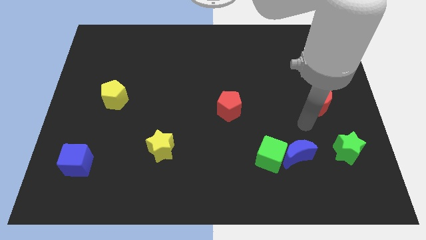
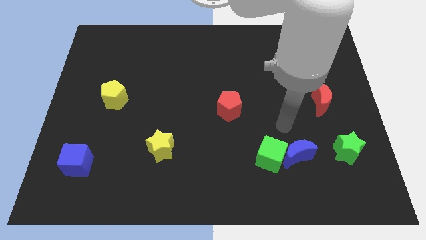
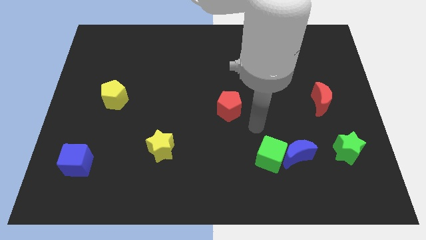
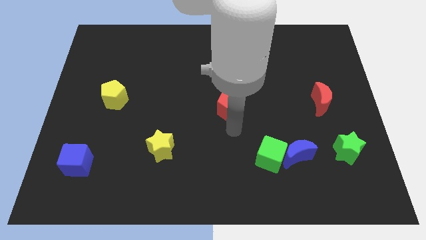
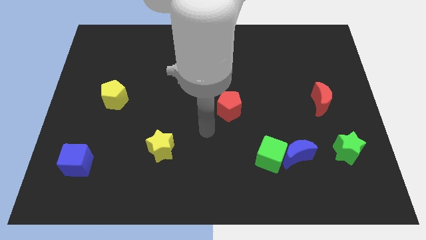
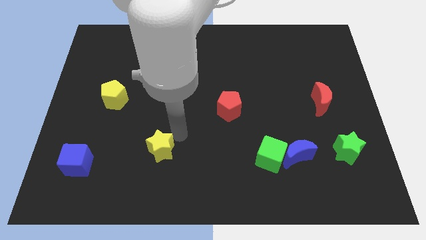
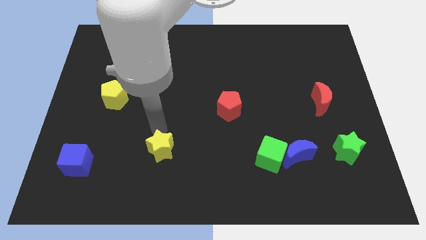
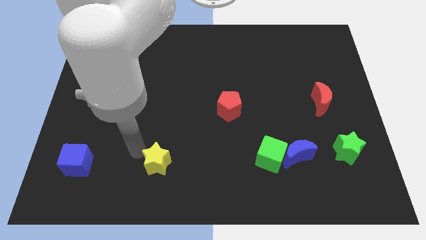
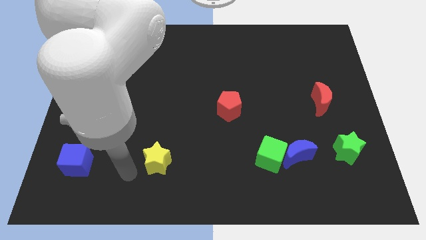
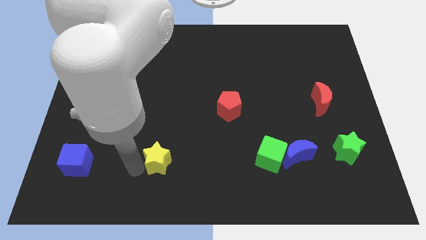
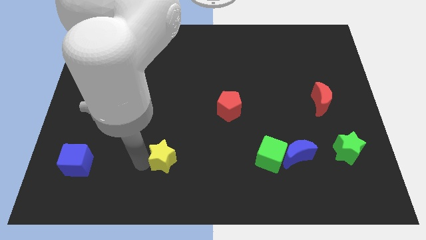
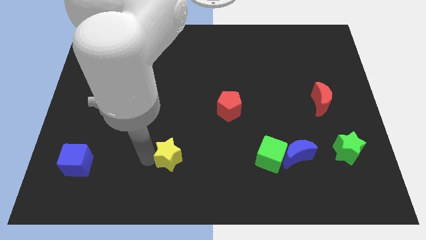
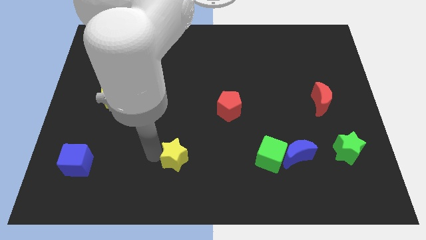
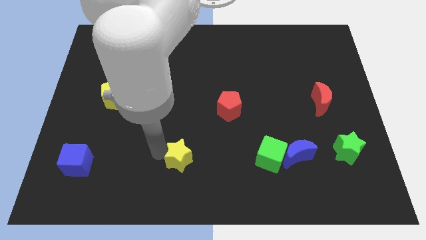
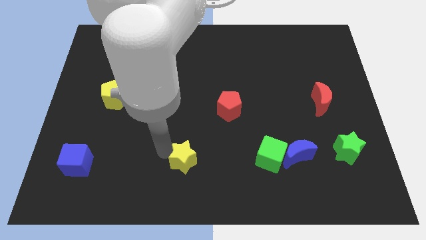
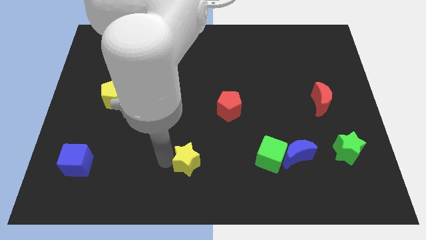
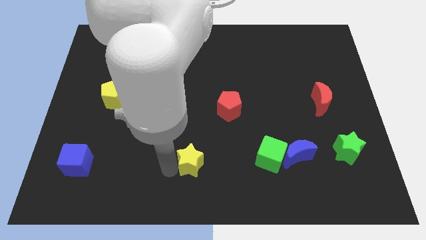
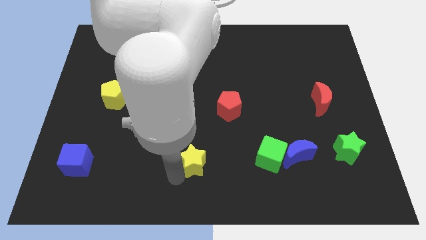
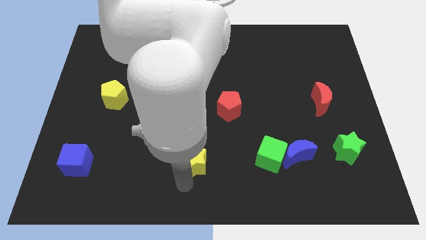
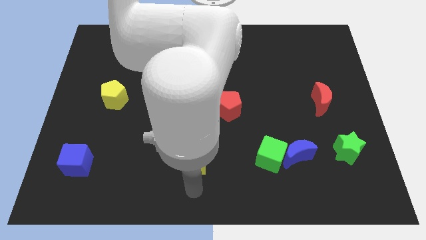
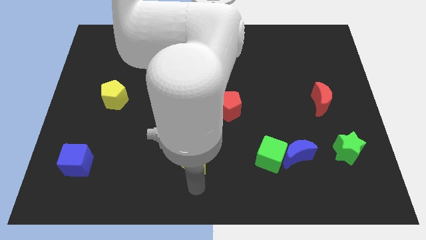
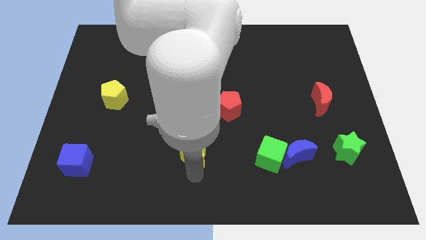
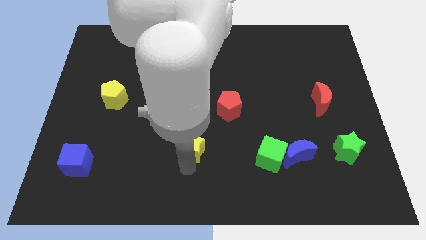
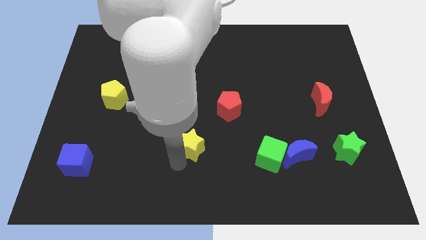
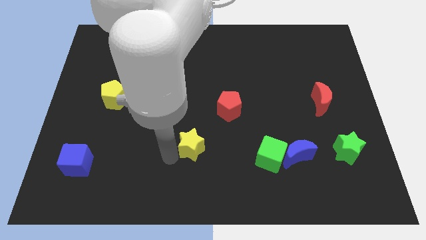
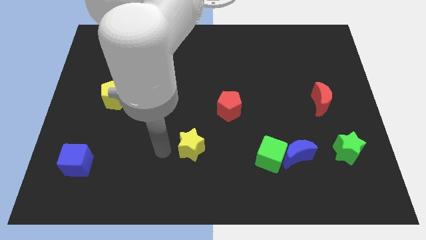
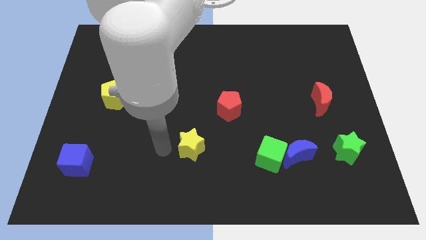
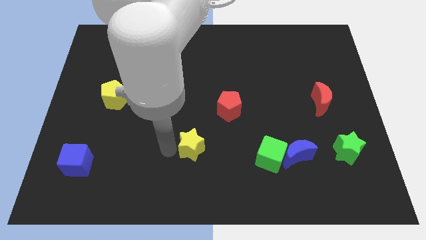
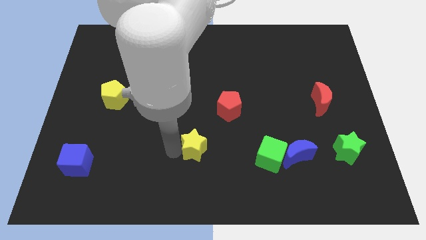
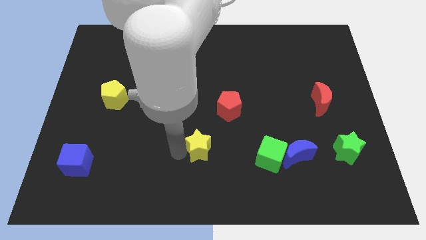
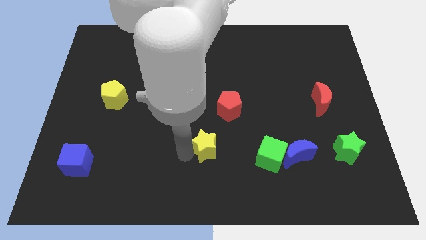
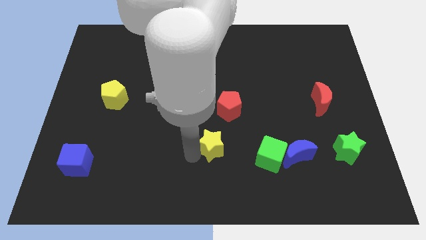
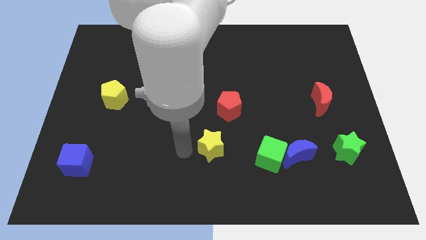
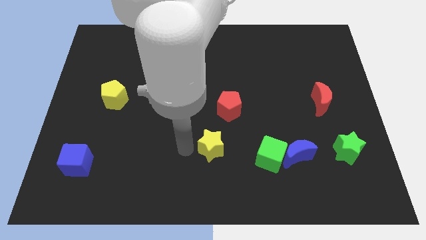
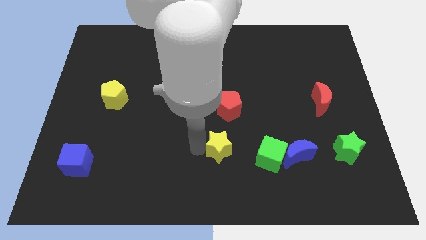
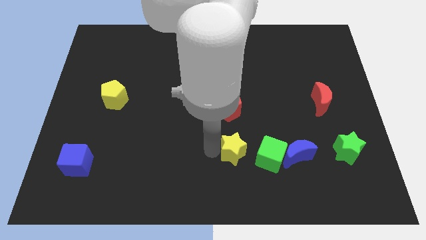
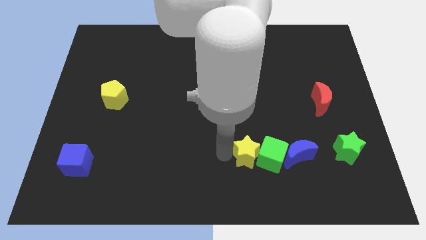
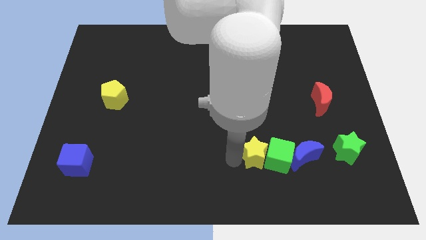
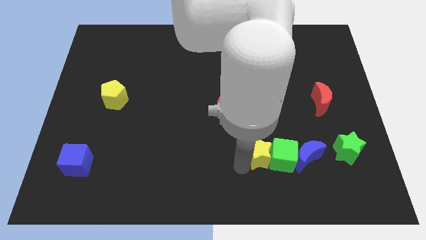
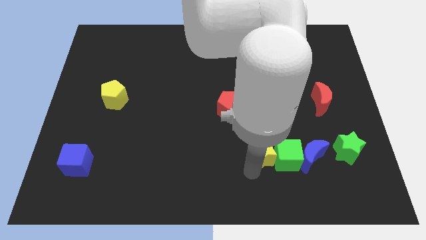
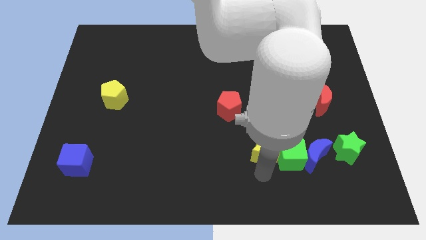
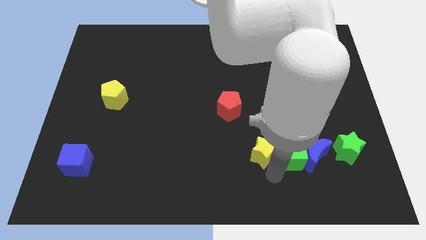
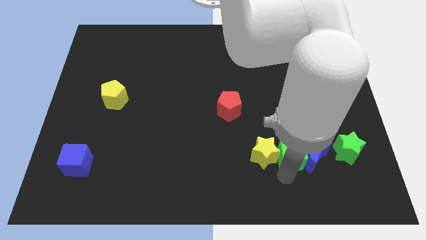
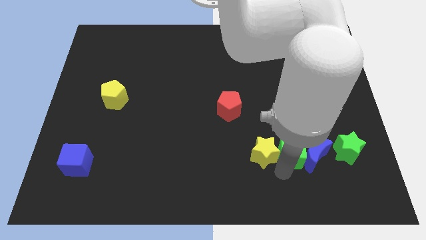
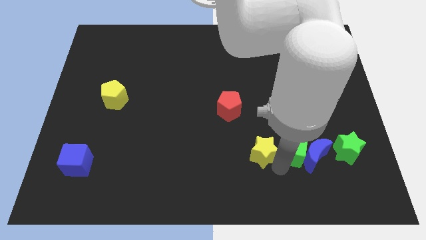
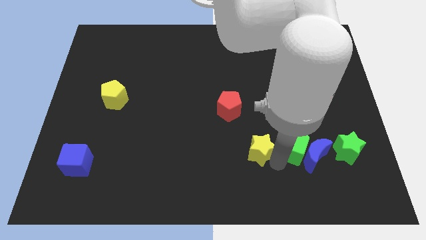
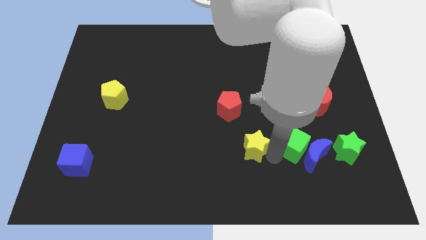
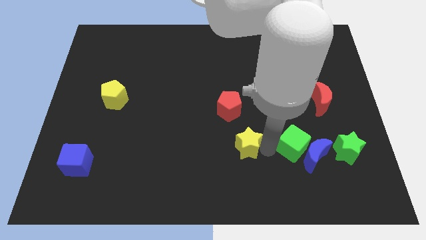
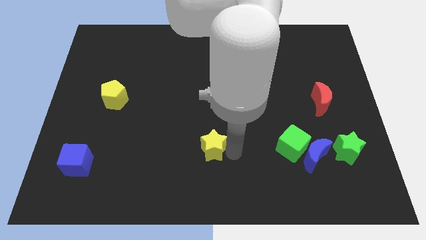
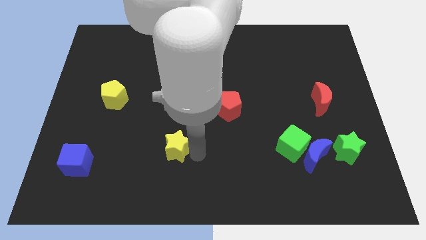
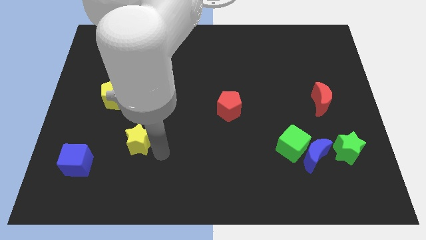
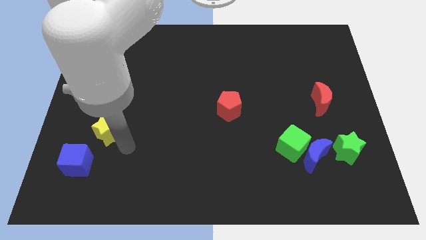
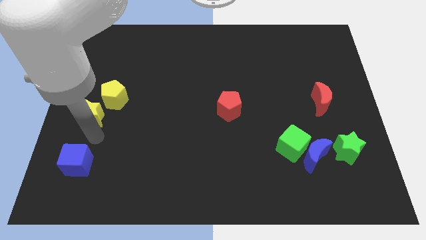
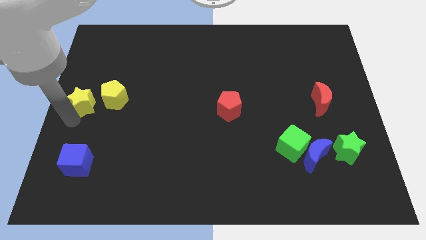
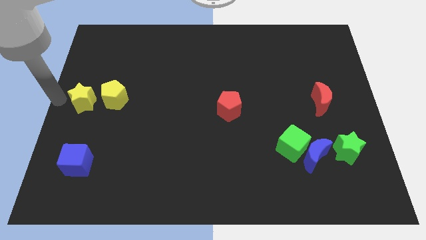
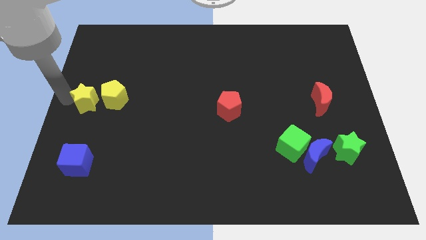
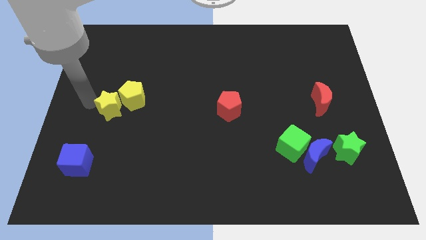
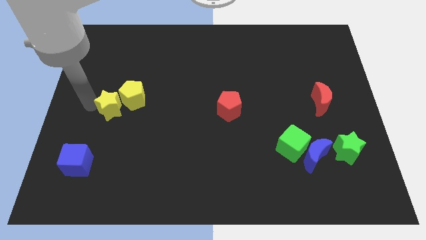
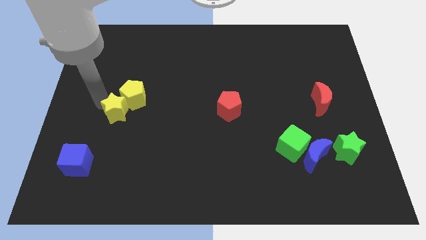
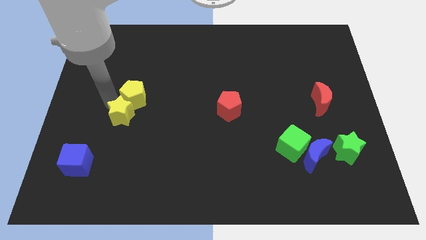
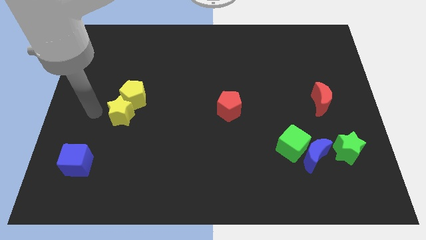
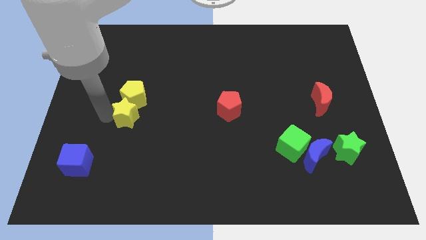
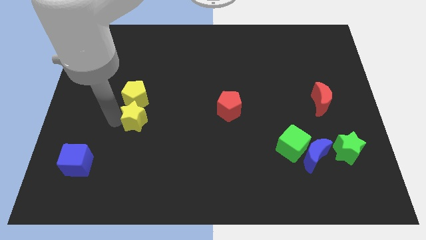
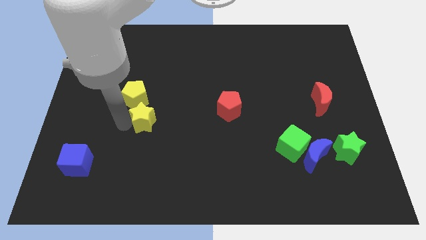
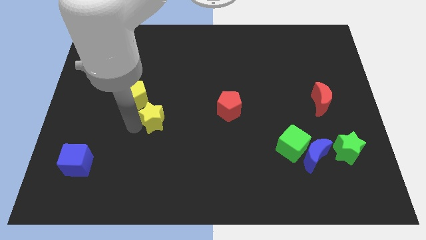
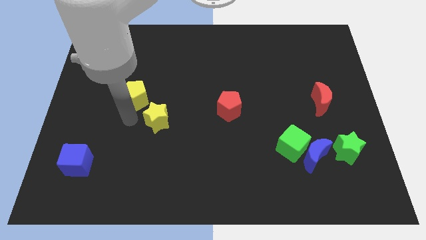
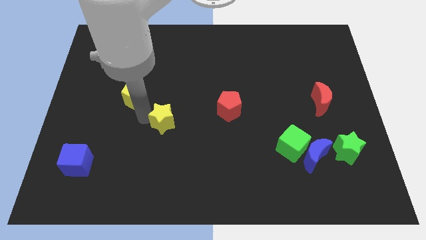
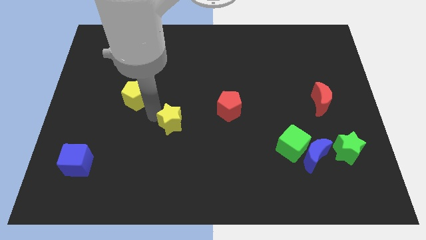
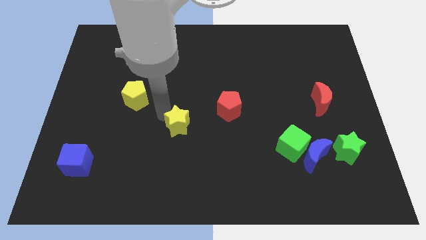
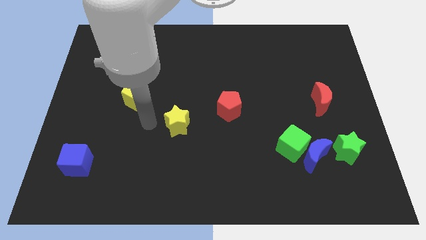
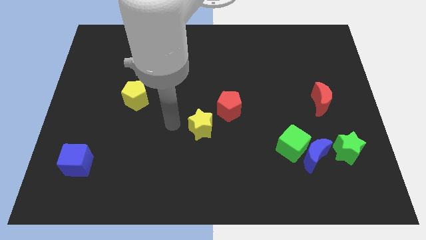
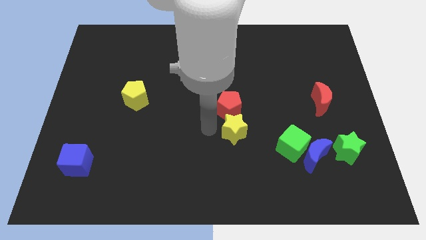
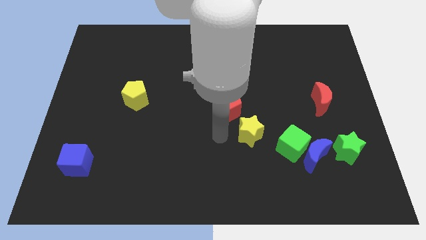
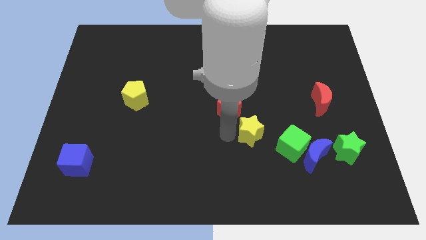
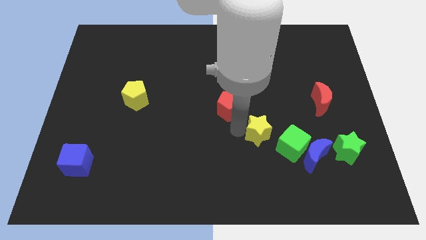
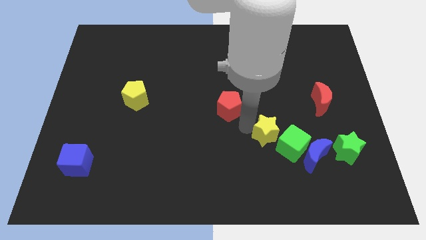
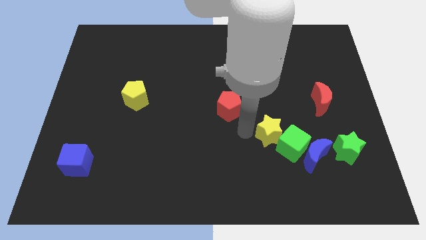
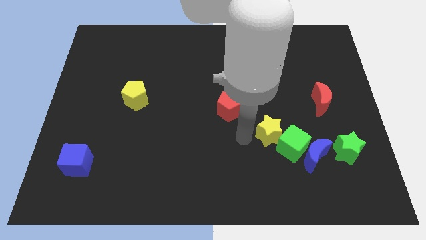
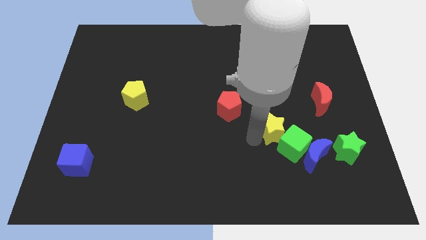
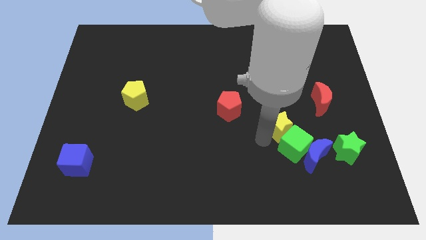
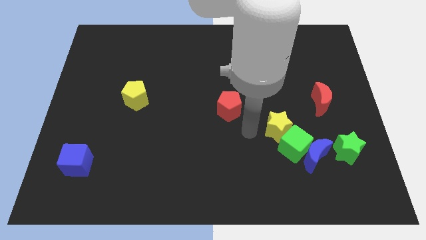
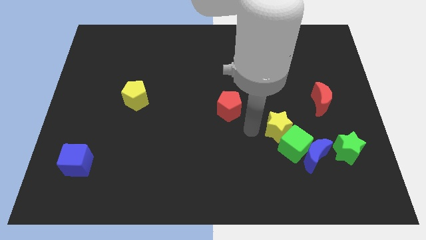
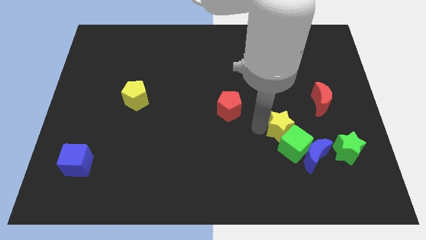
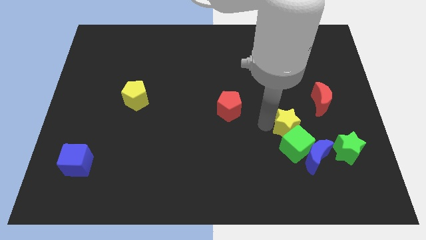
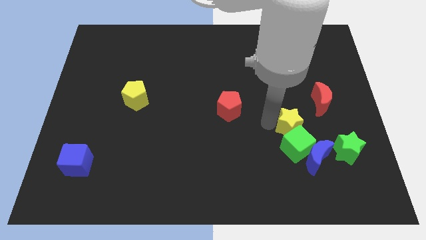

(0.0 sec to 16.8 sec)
push the yellow star to the top right of the green cube
